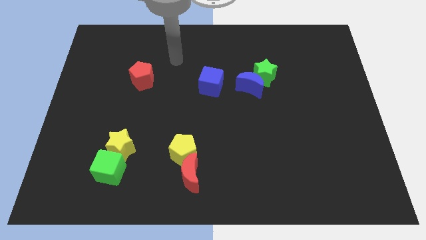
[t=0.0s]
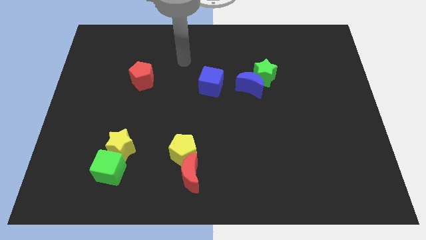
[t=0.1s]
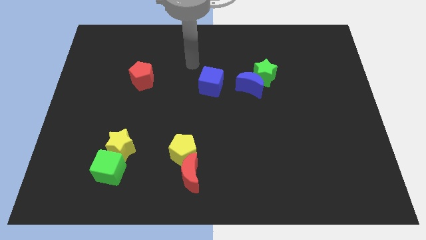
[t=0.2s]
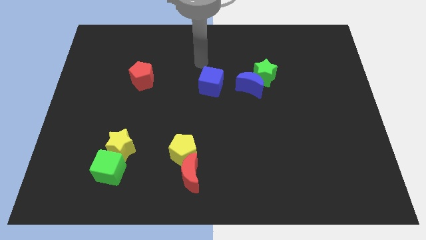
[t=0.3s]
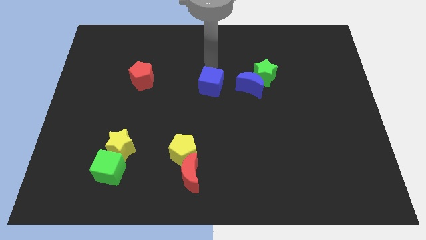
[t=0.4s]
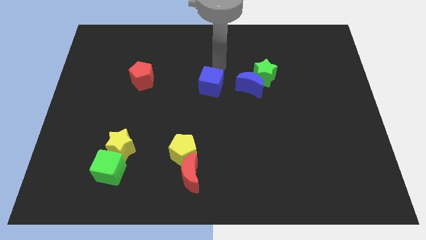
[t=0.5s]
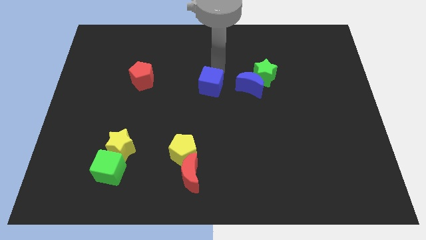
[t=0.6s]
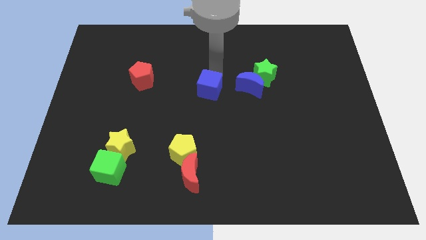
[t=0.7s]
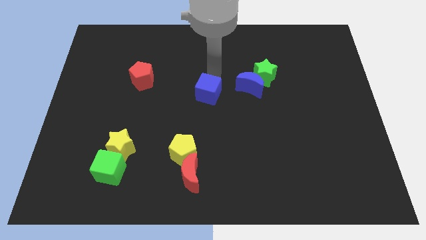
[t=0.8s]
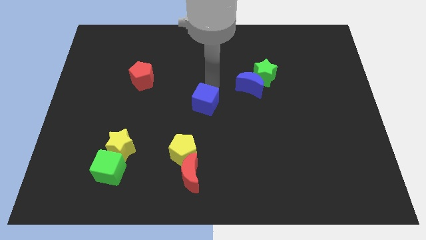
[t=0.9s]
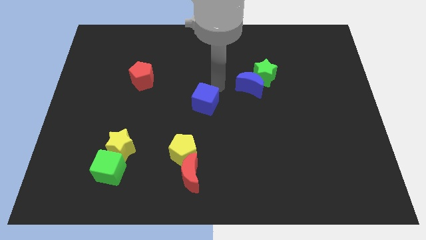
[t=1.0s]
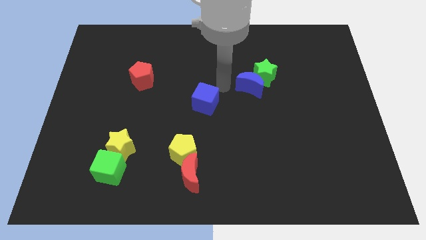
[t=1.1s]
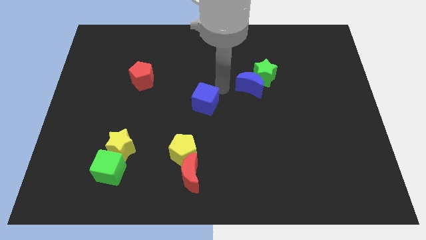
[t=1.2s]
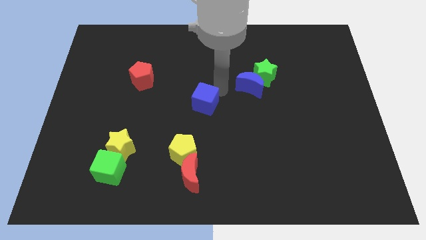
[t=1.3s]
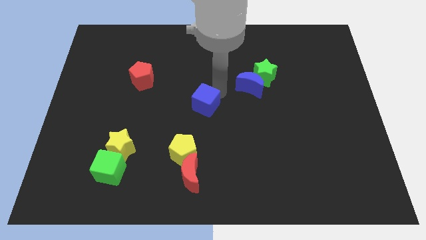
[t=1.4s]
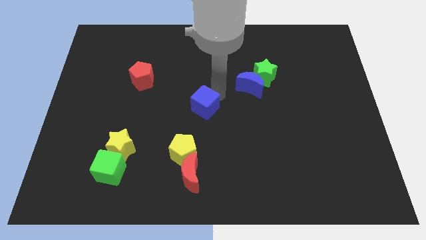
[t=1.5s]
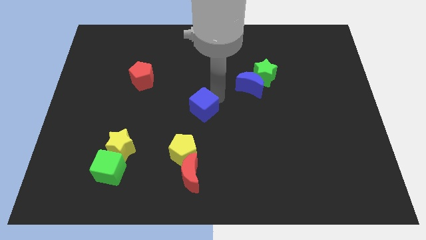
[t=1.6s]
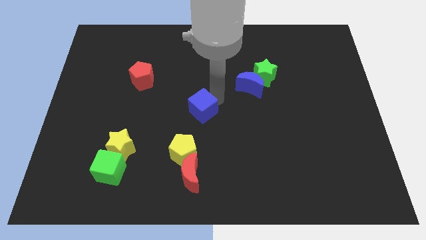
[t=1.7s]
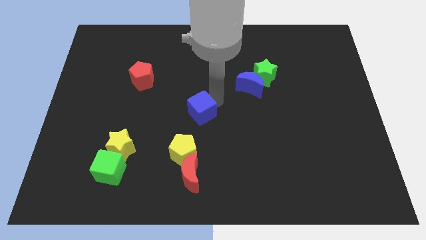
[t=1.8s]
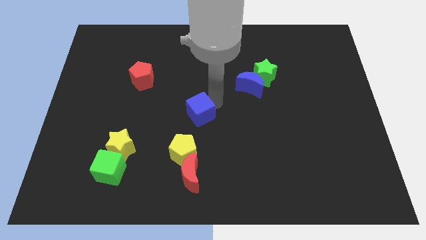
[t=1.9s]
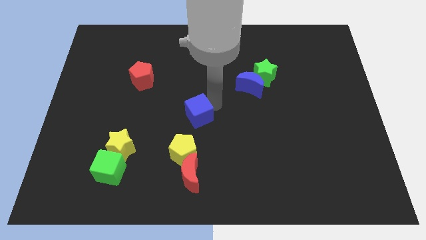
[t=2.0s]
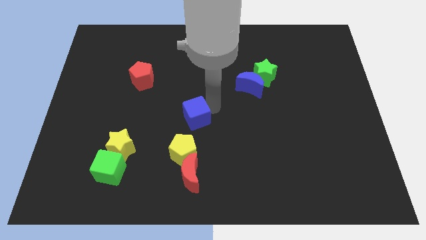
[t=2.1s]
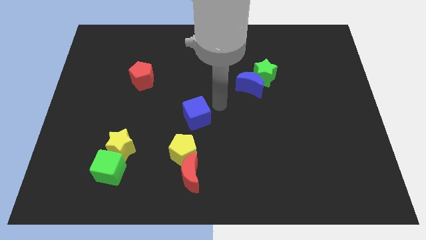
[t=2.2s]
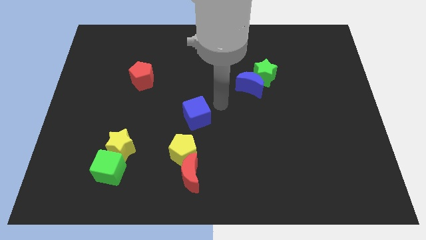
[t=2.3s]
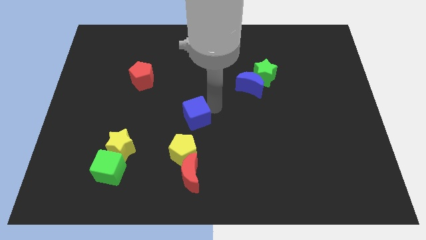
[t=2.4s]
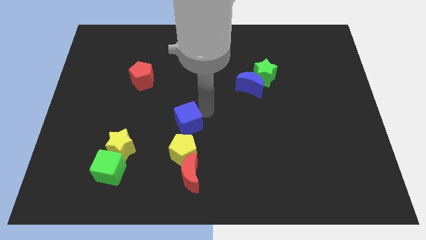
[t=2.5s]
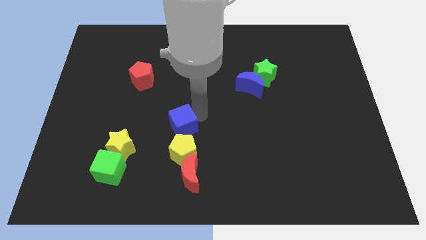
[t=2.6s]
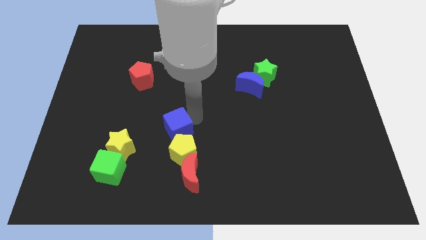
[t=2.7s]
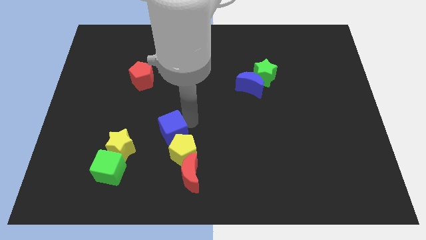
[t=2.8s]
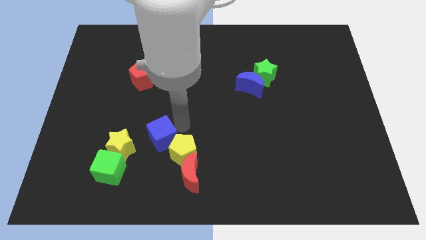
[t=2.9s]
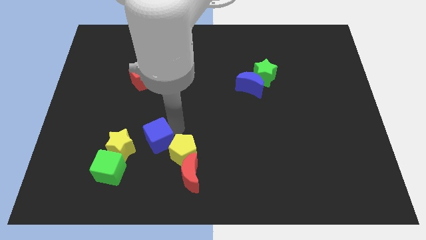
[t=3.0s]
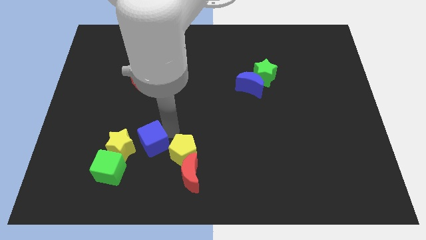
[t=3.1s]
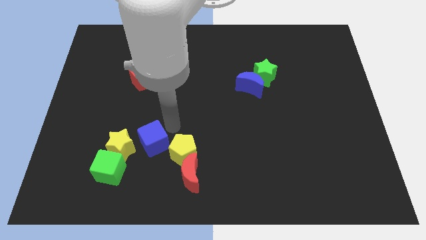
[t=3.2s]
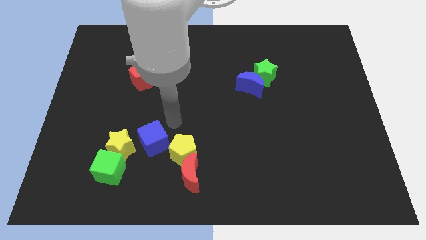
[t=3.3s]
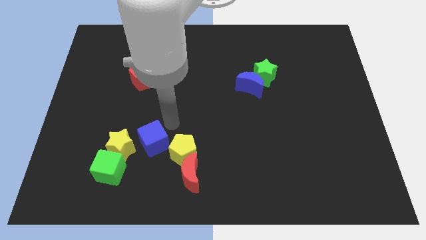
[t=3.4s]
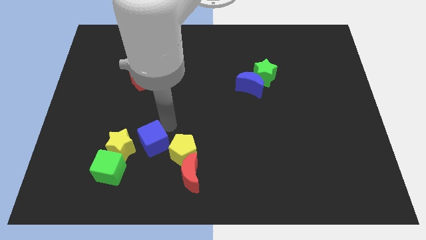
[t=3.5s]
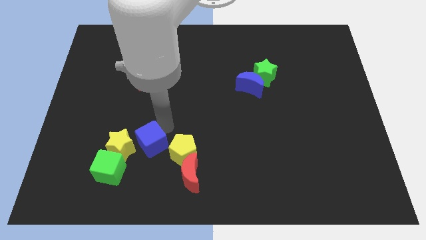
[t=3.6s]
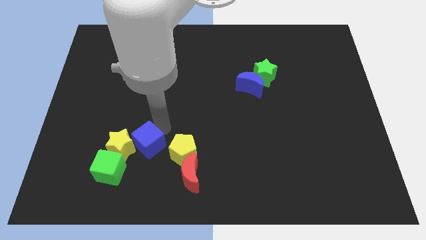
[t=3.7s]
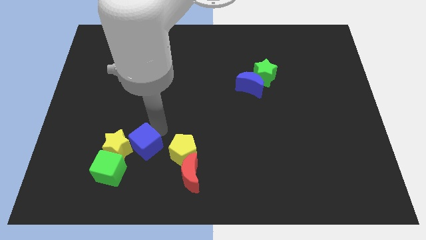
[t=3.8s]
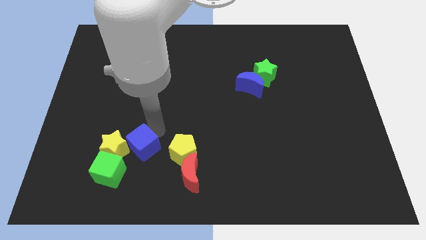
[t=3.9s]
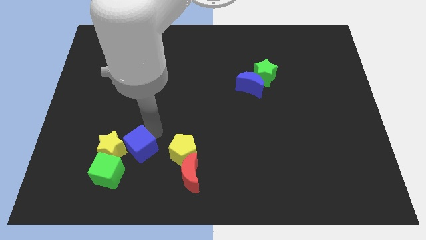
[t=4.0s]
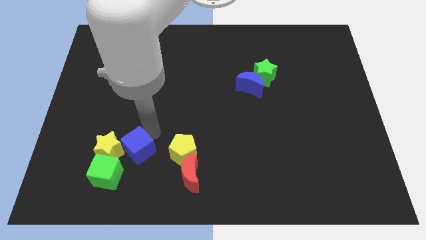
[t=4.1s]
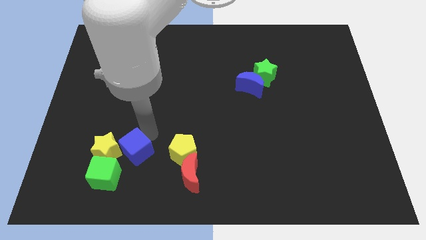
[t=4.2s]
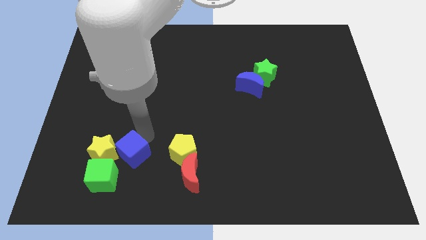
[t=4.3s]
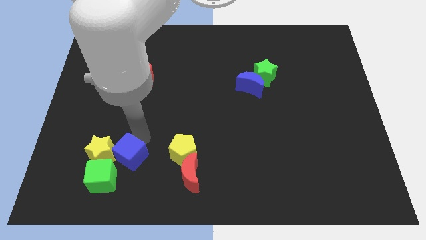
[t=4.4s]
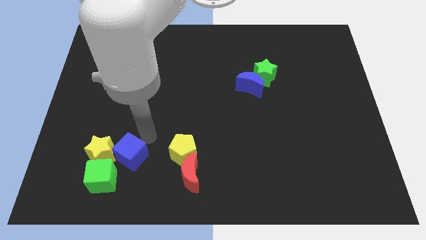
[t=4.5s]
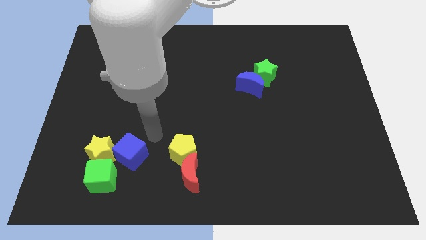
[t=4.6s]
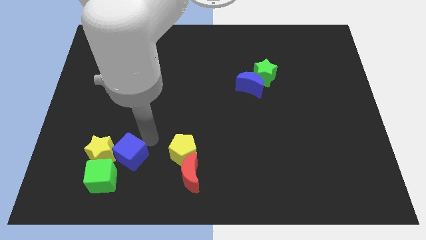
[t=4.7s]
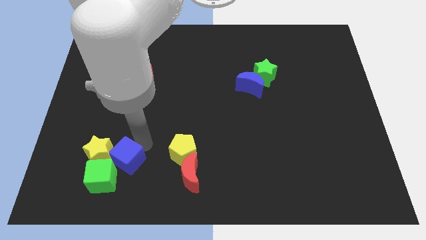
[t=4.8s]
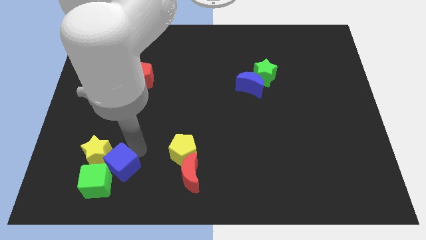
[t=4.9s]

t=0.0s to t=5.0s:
move the blue cube close to the green cube

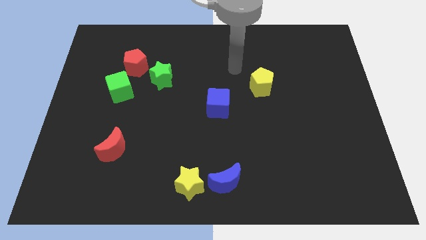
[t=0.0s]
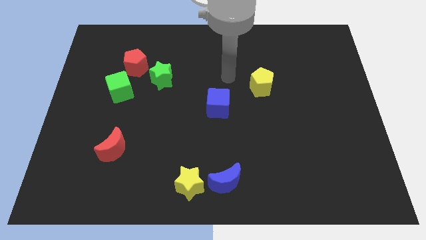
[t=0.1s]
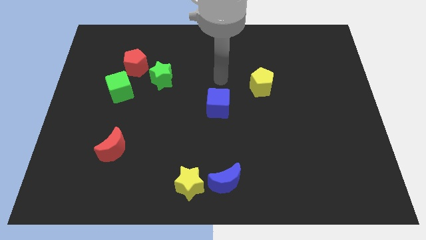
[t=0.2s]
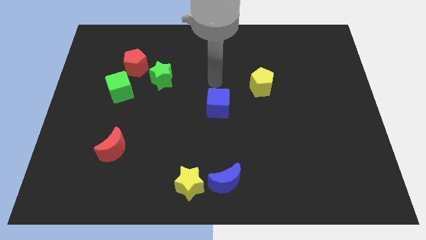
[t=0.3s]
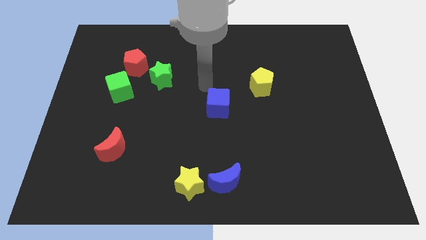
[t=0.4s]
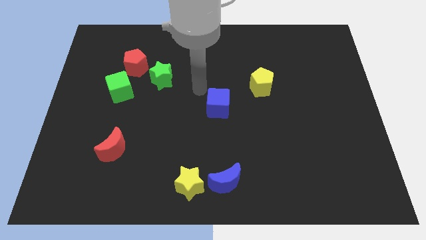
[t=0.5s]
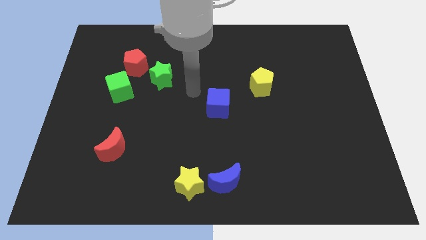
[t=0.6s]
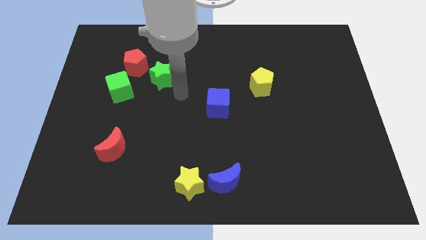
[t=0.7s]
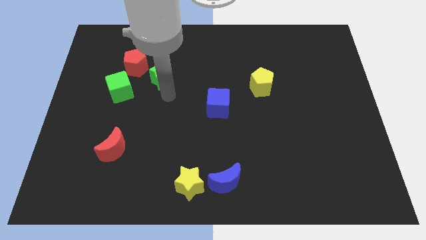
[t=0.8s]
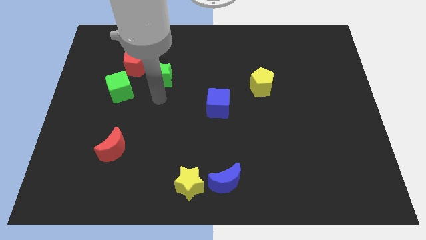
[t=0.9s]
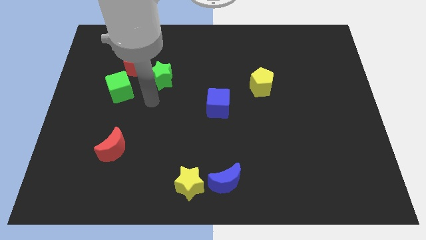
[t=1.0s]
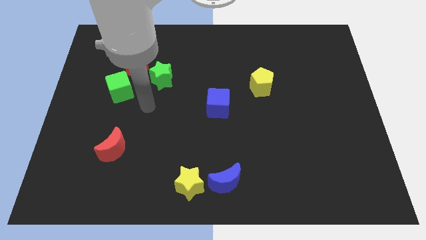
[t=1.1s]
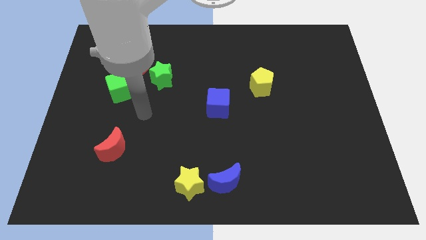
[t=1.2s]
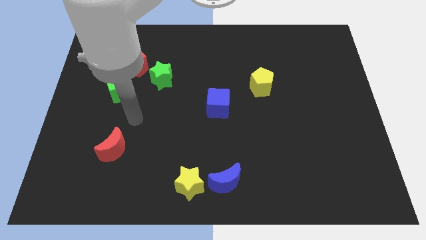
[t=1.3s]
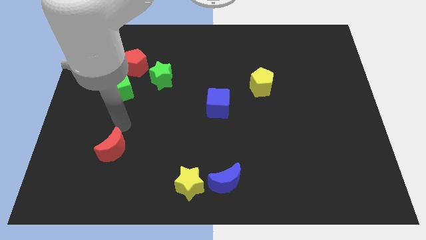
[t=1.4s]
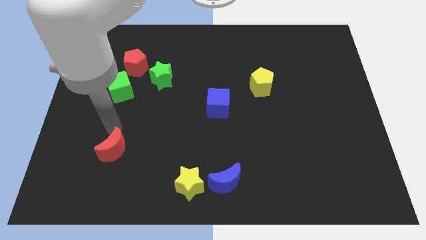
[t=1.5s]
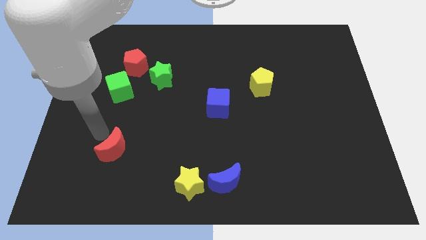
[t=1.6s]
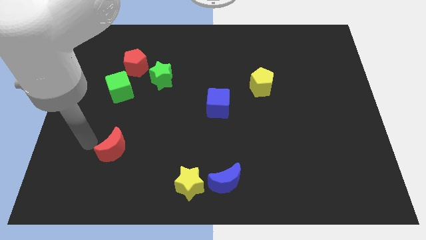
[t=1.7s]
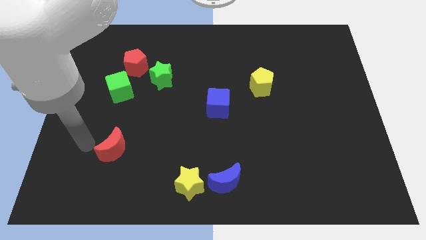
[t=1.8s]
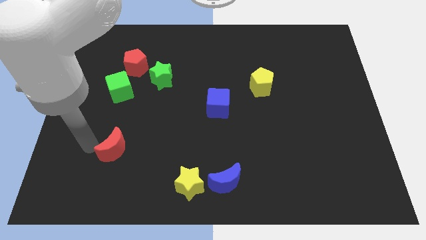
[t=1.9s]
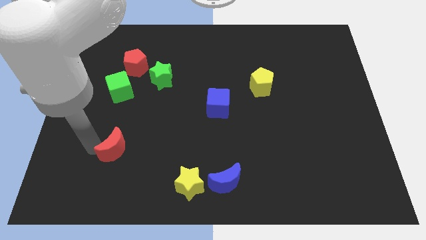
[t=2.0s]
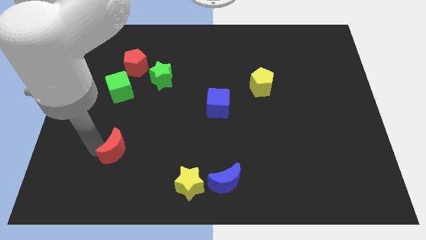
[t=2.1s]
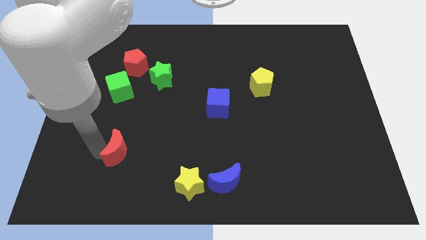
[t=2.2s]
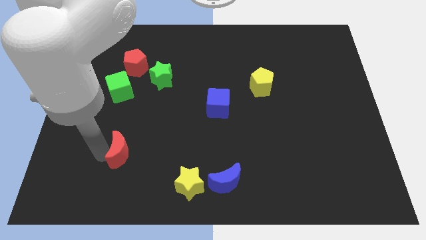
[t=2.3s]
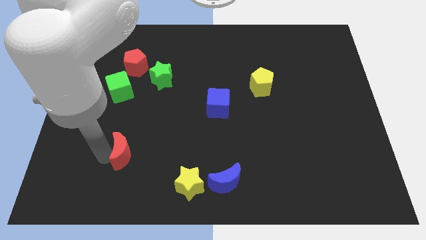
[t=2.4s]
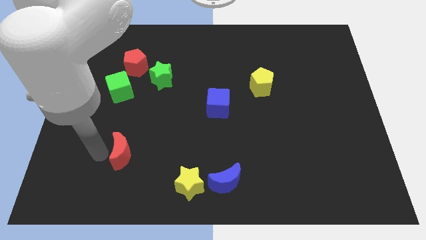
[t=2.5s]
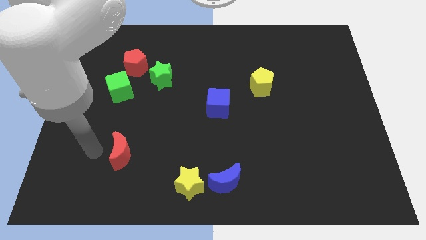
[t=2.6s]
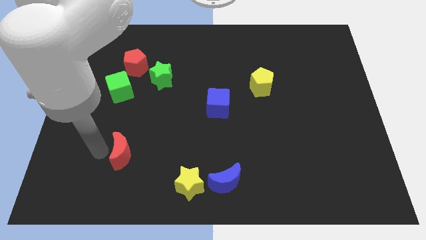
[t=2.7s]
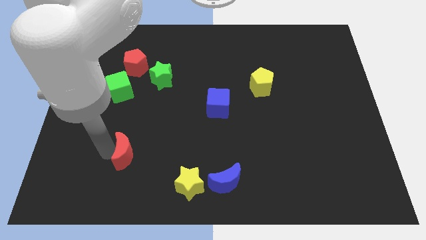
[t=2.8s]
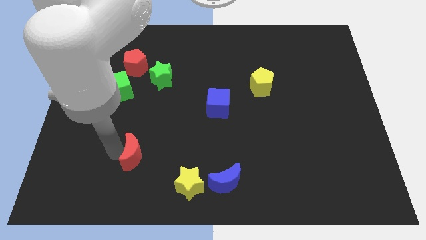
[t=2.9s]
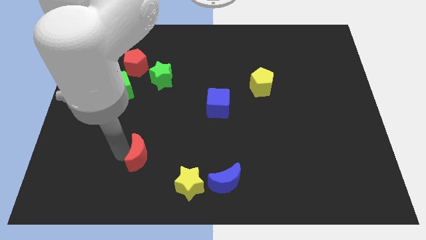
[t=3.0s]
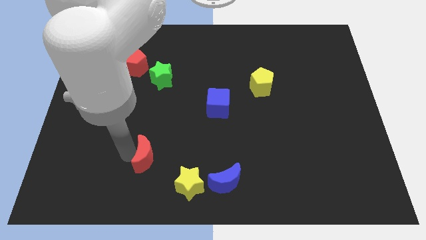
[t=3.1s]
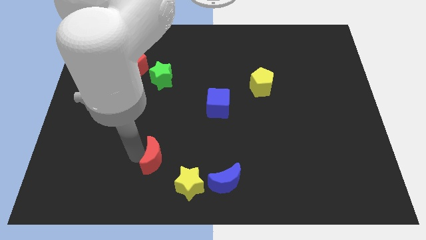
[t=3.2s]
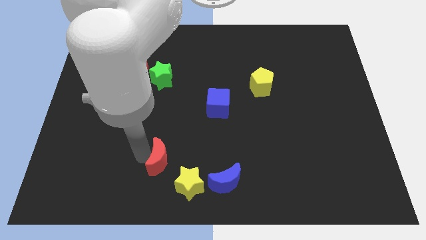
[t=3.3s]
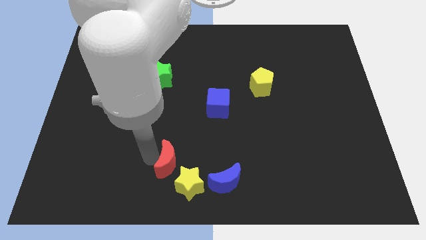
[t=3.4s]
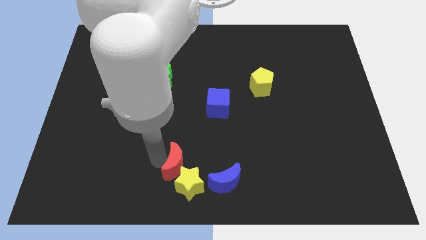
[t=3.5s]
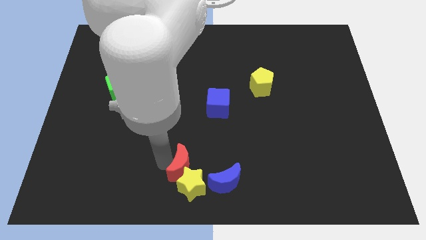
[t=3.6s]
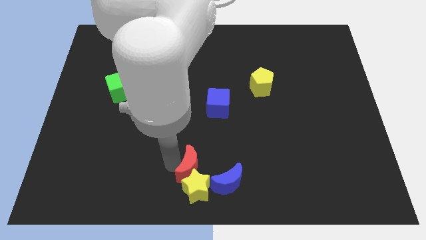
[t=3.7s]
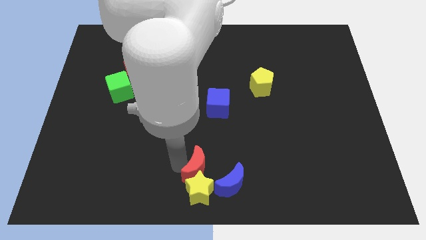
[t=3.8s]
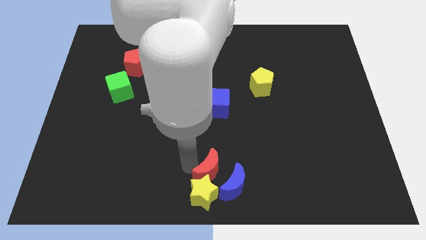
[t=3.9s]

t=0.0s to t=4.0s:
push the red moon towards the blue moon
